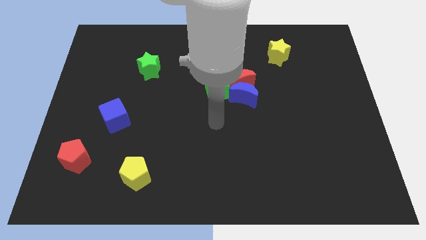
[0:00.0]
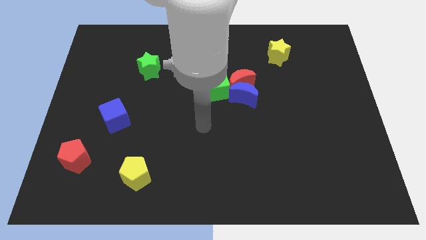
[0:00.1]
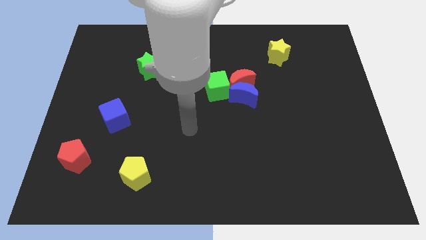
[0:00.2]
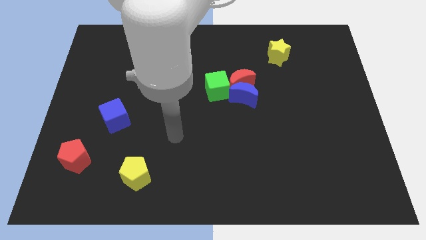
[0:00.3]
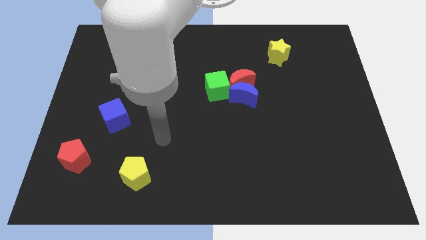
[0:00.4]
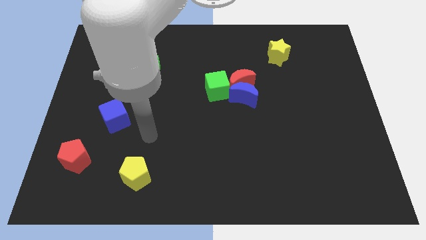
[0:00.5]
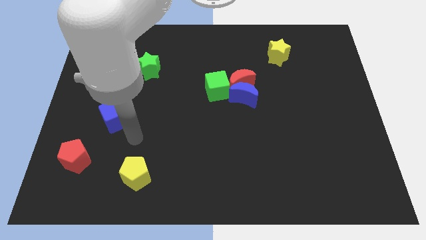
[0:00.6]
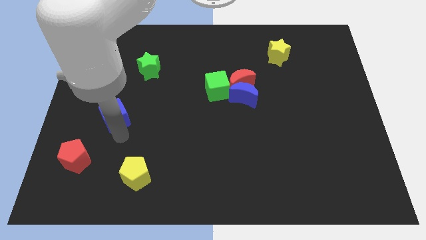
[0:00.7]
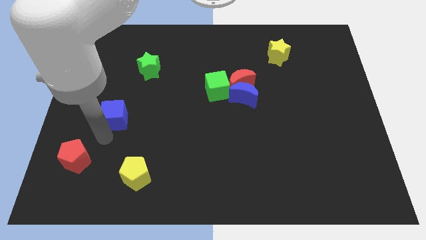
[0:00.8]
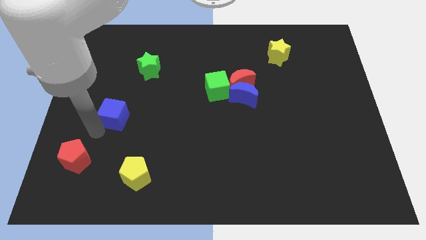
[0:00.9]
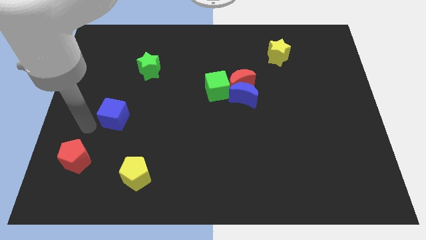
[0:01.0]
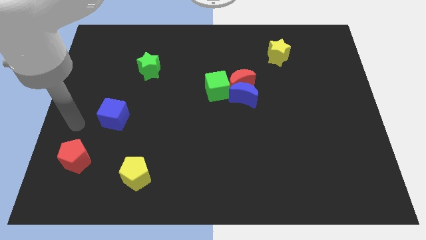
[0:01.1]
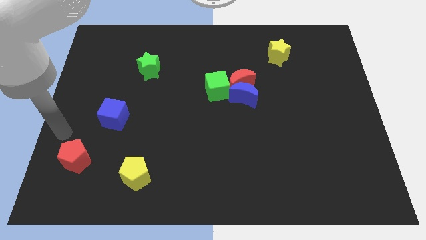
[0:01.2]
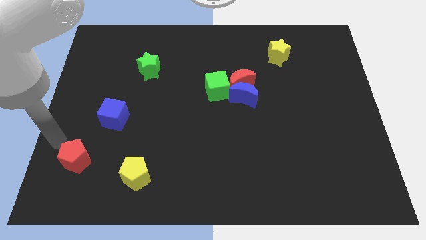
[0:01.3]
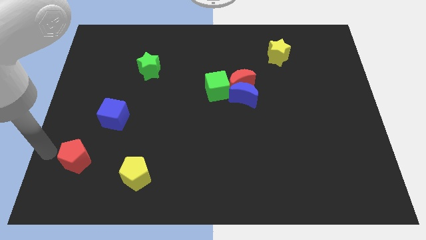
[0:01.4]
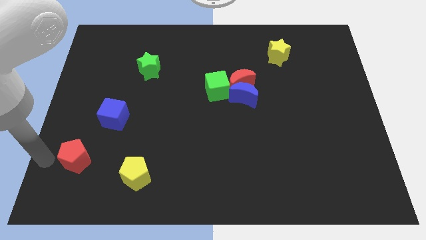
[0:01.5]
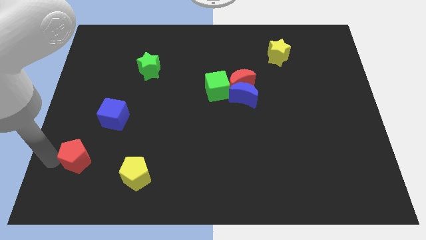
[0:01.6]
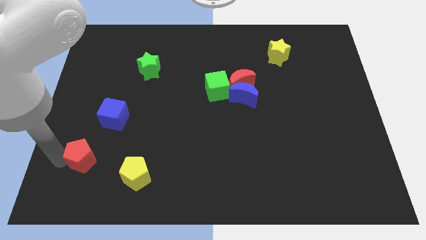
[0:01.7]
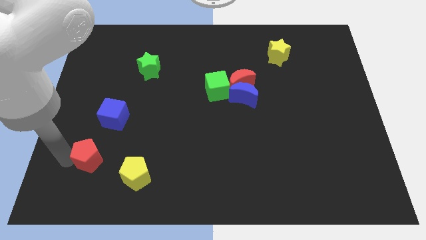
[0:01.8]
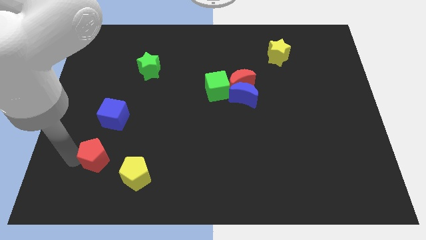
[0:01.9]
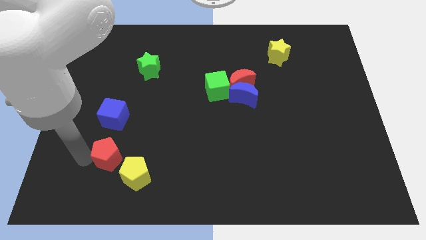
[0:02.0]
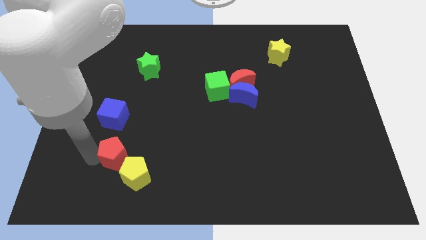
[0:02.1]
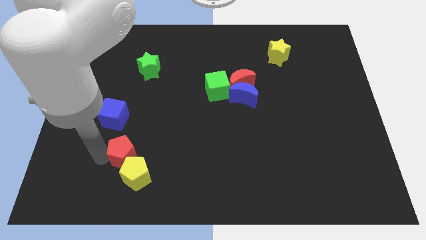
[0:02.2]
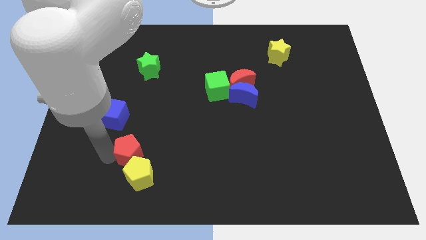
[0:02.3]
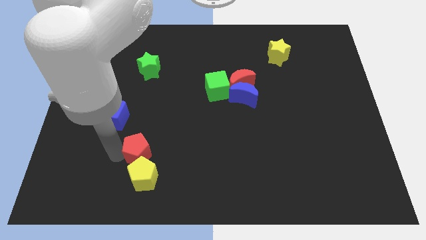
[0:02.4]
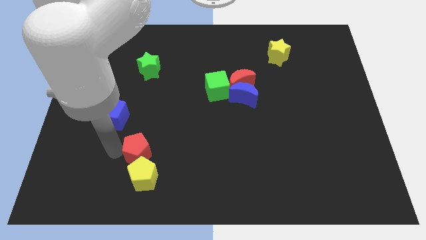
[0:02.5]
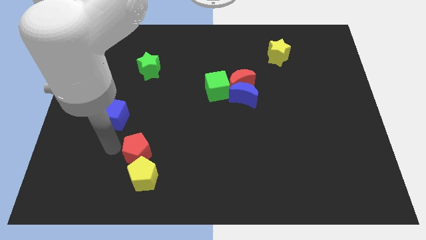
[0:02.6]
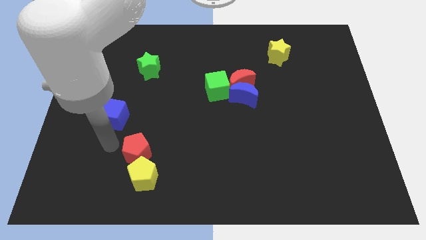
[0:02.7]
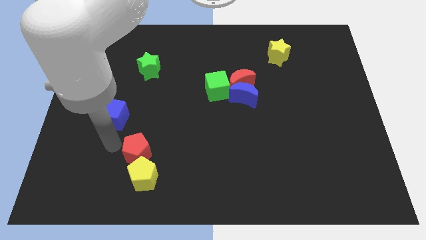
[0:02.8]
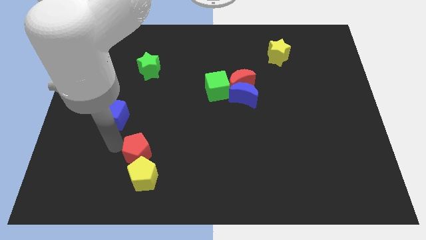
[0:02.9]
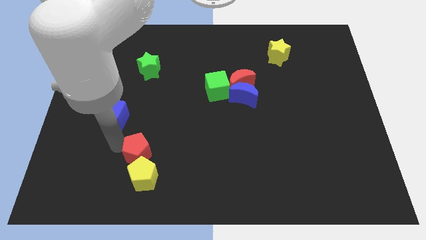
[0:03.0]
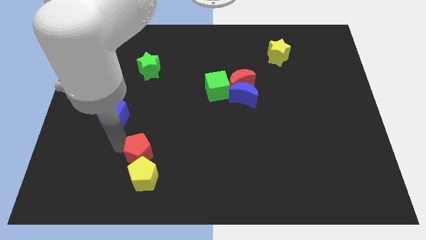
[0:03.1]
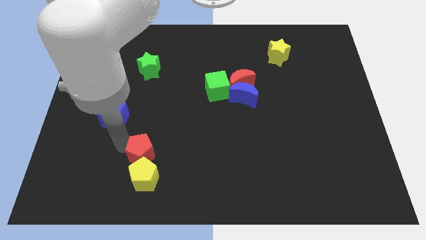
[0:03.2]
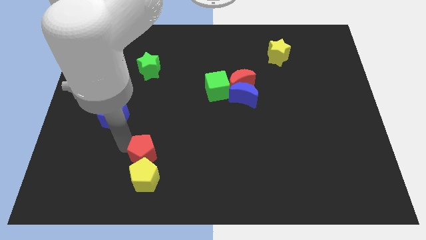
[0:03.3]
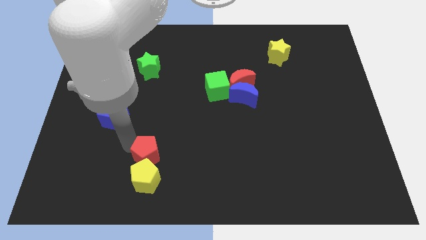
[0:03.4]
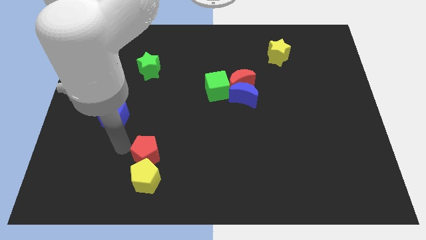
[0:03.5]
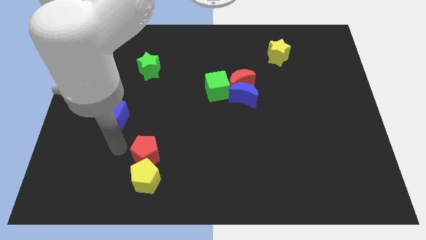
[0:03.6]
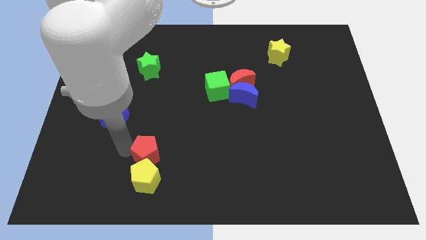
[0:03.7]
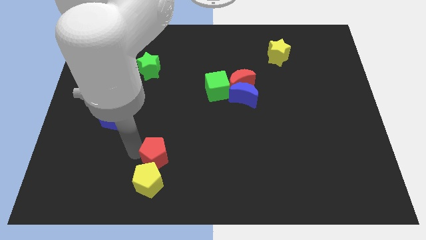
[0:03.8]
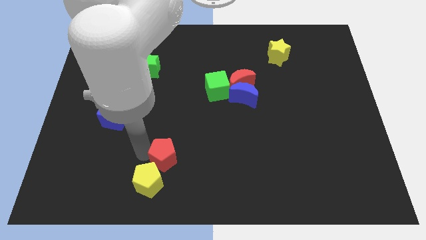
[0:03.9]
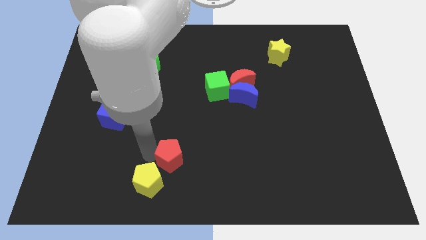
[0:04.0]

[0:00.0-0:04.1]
push the red pentagon to the right

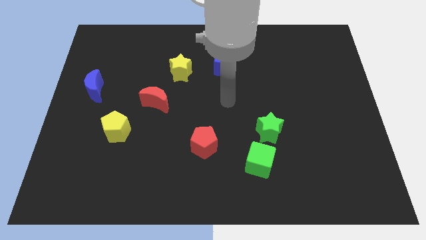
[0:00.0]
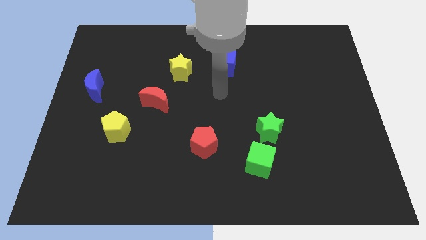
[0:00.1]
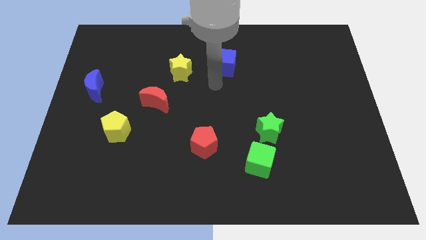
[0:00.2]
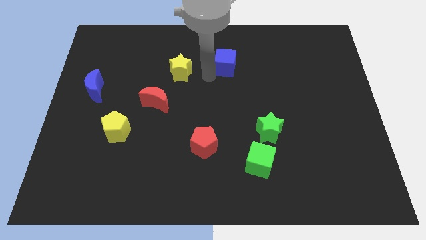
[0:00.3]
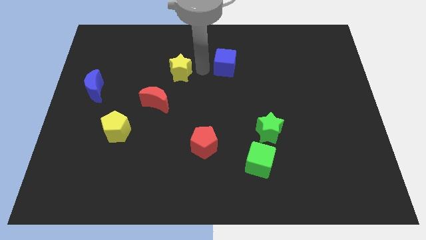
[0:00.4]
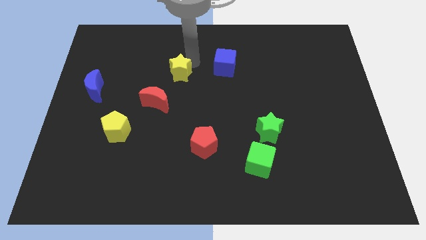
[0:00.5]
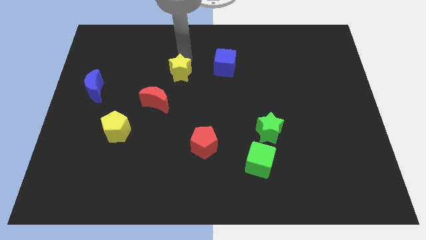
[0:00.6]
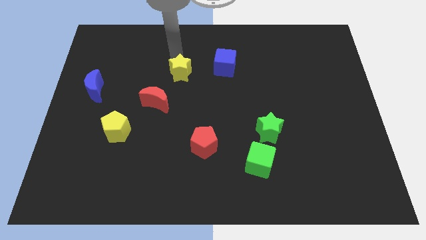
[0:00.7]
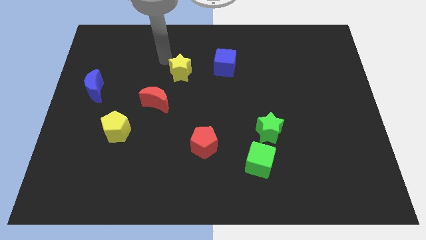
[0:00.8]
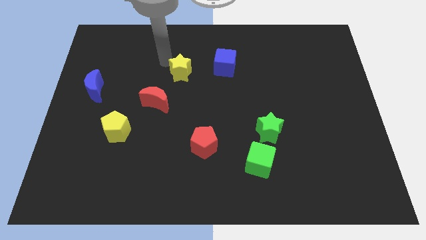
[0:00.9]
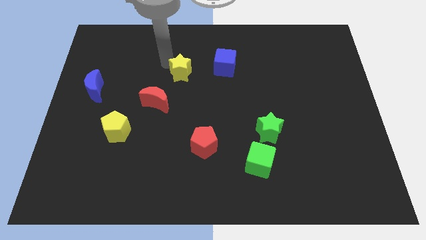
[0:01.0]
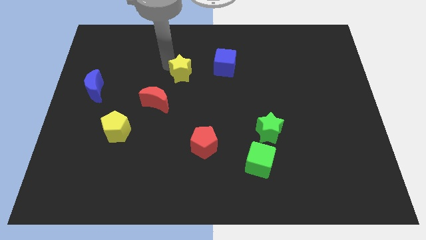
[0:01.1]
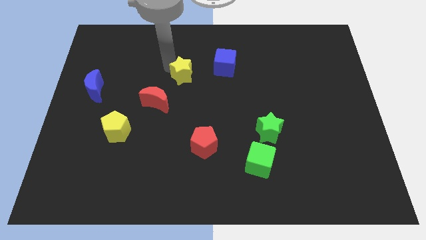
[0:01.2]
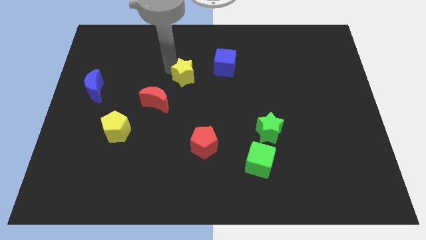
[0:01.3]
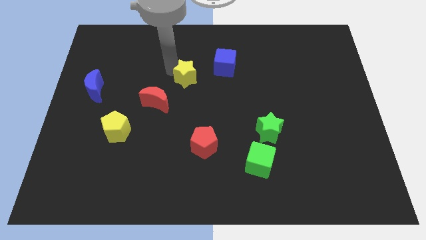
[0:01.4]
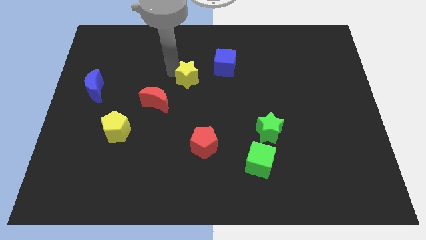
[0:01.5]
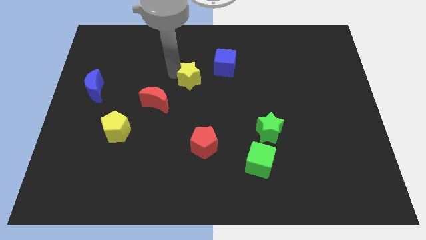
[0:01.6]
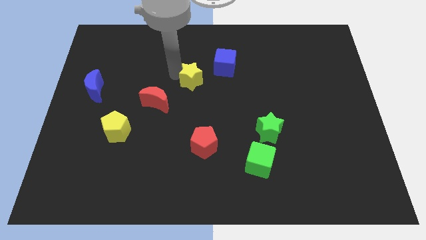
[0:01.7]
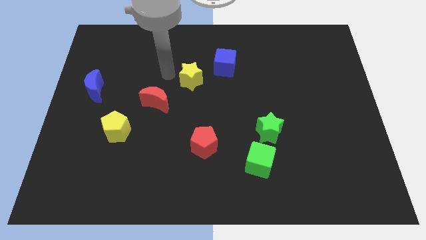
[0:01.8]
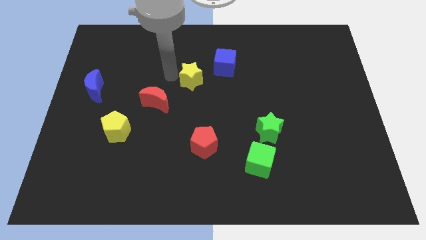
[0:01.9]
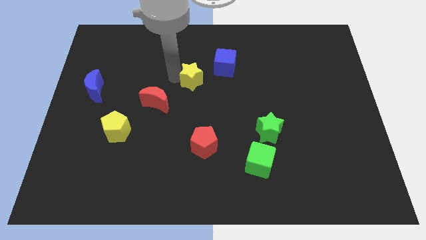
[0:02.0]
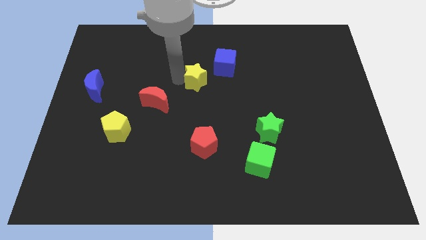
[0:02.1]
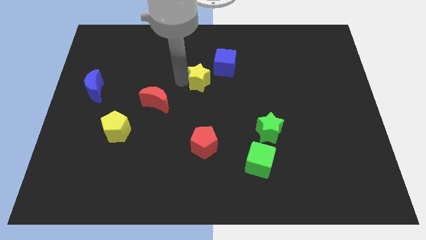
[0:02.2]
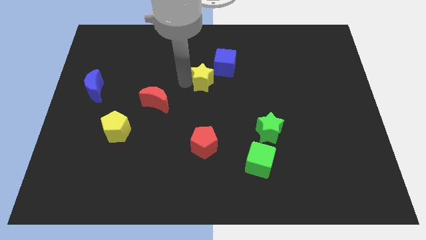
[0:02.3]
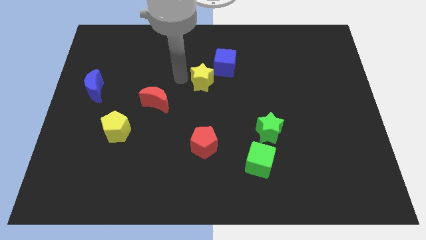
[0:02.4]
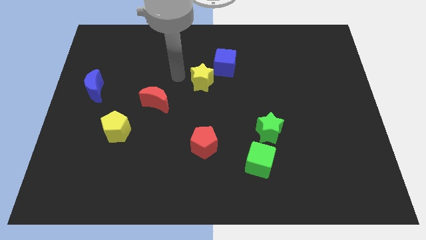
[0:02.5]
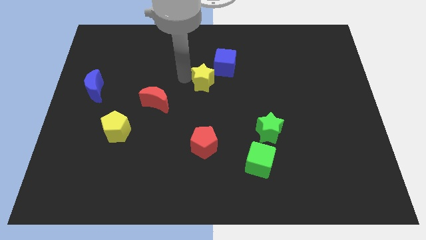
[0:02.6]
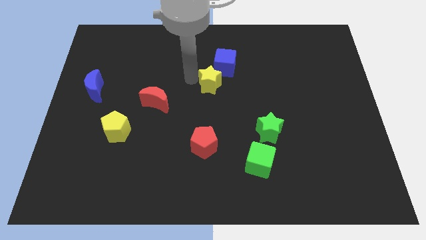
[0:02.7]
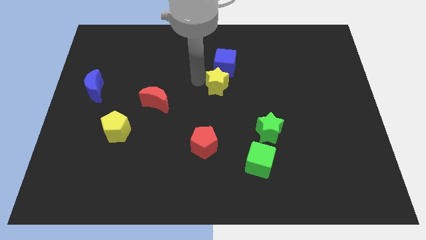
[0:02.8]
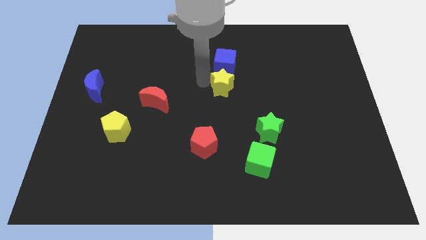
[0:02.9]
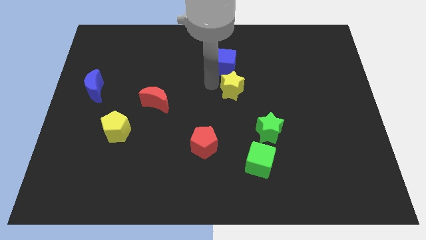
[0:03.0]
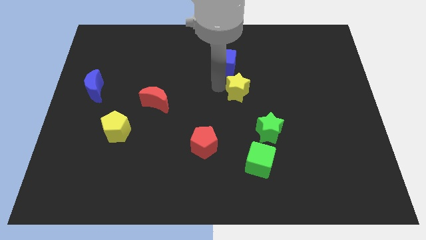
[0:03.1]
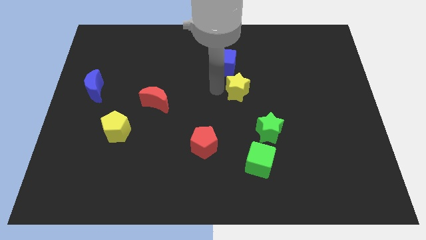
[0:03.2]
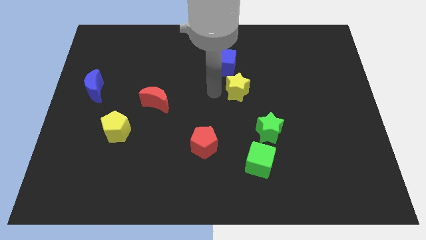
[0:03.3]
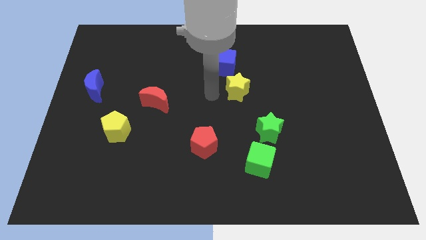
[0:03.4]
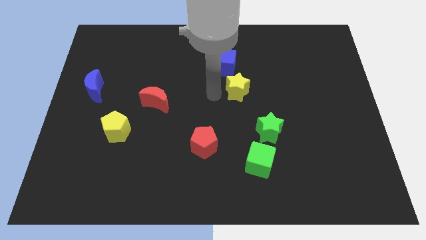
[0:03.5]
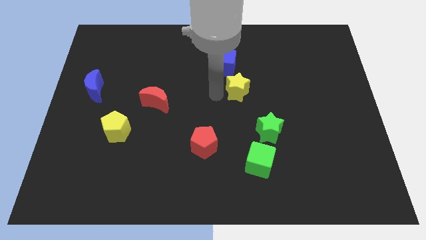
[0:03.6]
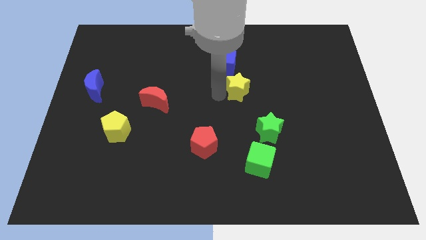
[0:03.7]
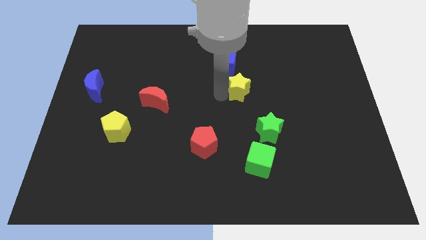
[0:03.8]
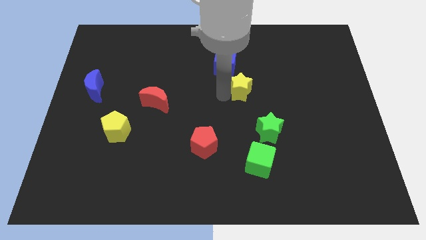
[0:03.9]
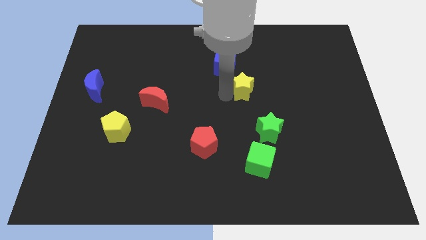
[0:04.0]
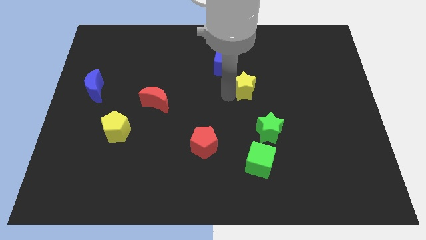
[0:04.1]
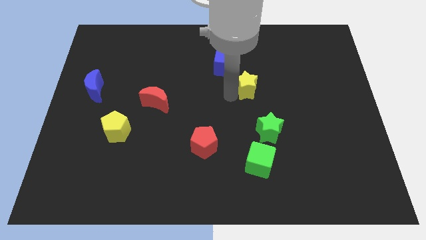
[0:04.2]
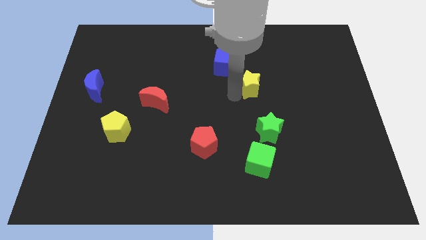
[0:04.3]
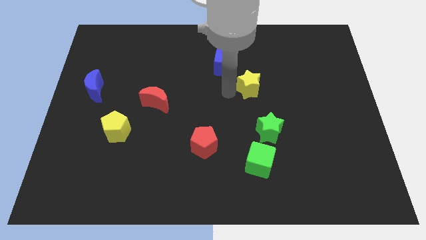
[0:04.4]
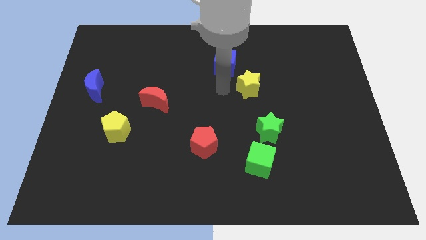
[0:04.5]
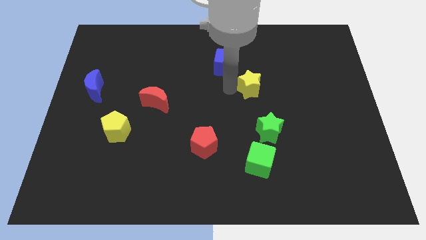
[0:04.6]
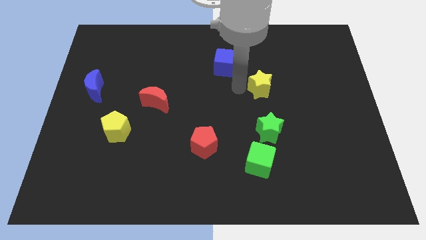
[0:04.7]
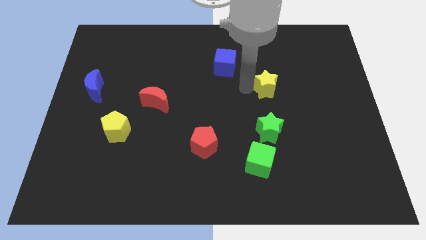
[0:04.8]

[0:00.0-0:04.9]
push the yellow star right
